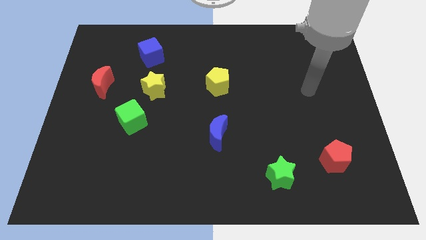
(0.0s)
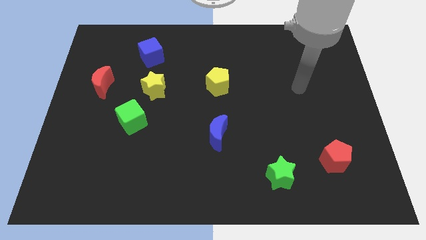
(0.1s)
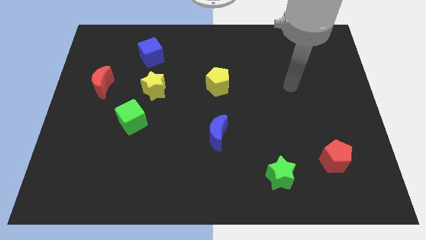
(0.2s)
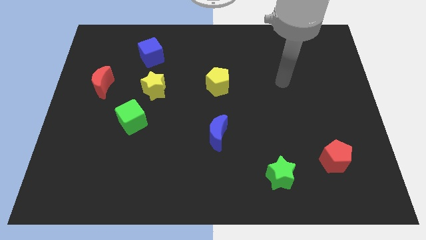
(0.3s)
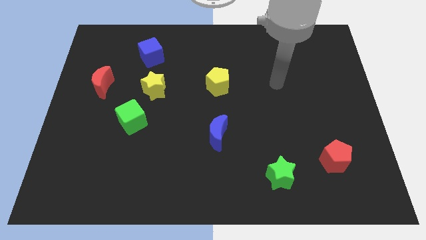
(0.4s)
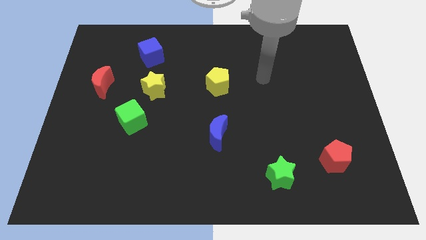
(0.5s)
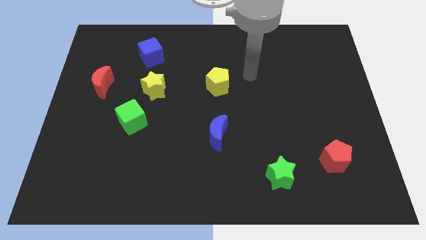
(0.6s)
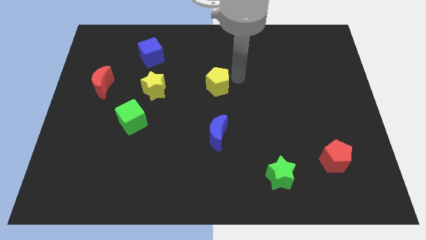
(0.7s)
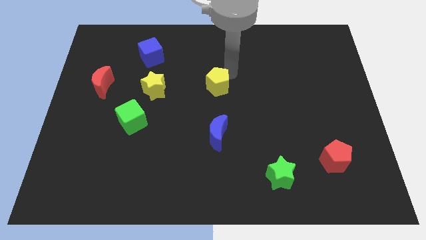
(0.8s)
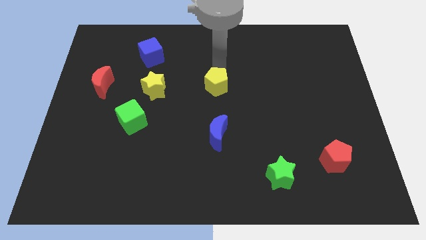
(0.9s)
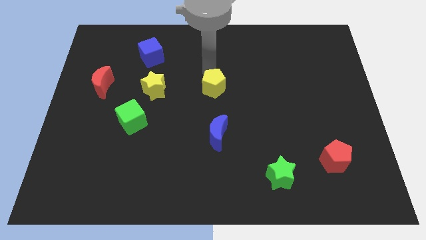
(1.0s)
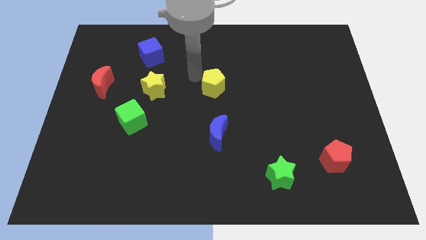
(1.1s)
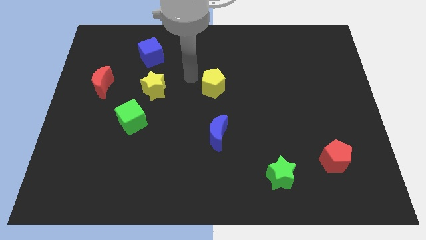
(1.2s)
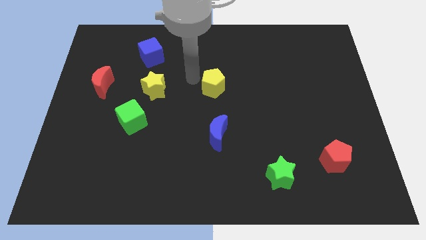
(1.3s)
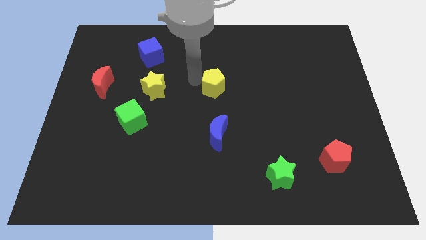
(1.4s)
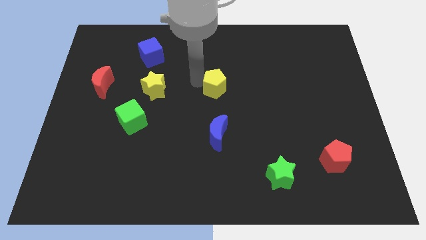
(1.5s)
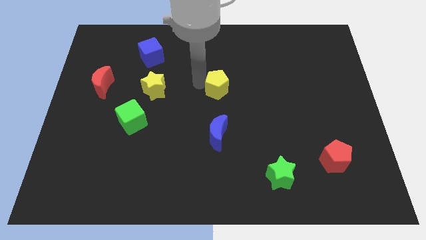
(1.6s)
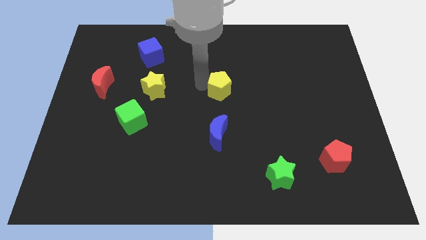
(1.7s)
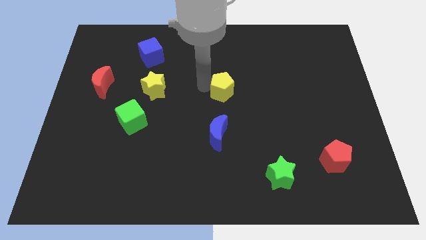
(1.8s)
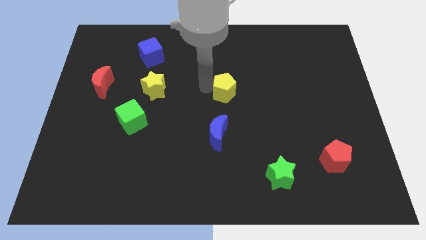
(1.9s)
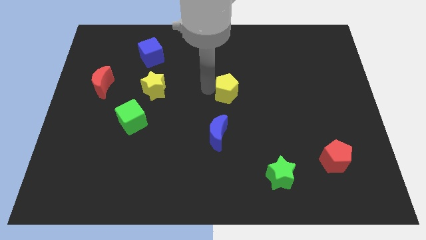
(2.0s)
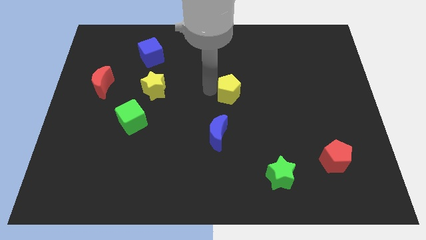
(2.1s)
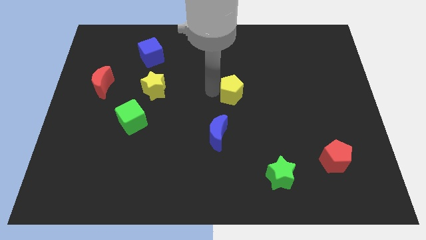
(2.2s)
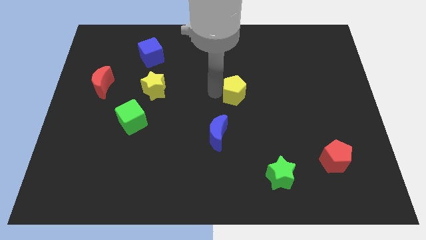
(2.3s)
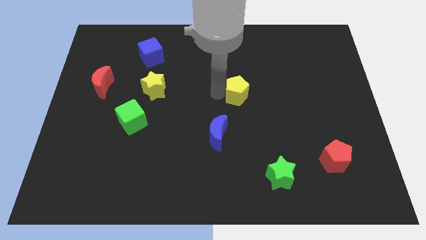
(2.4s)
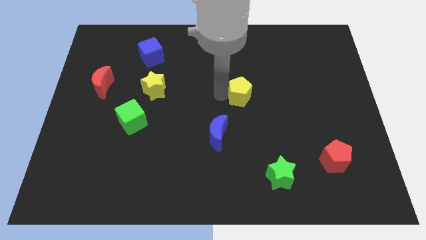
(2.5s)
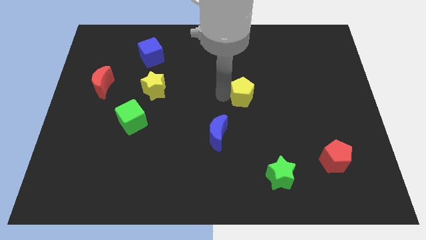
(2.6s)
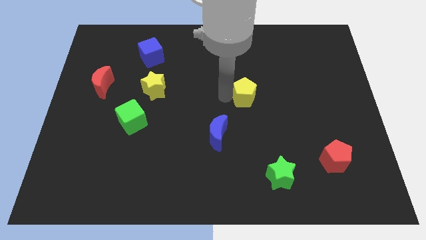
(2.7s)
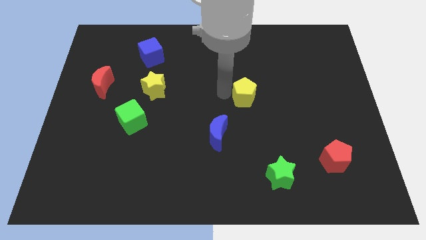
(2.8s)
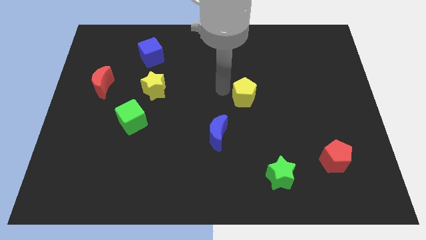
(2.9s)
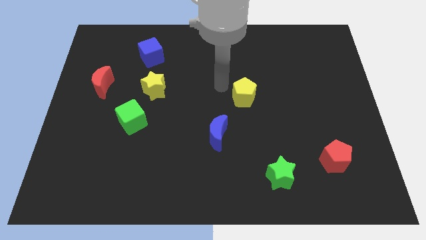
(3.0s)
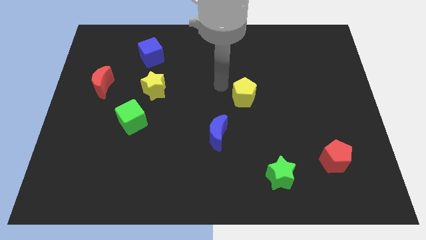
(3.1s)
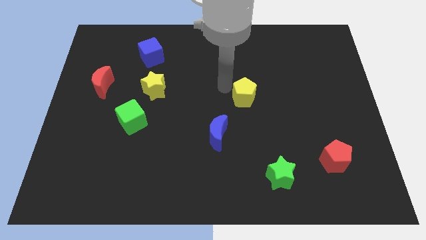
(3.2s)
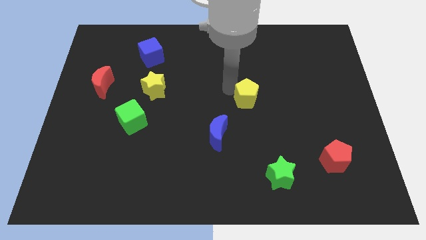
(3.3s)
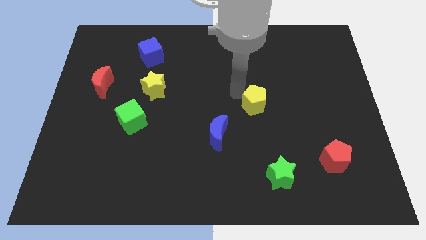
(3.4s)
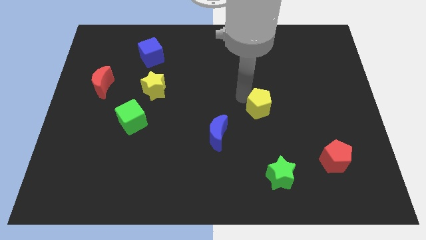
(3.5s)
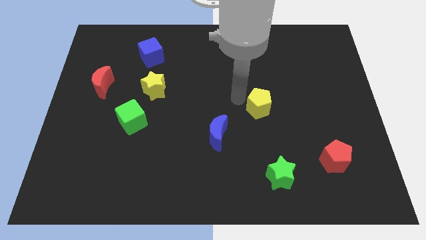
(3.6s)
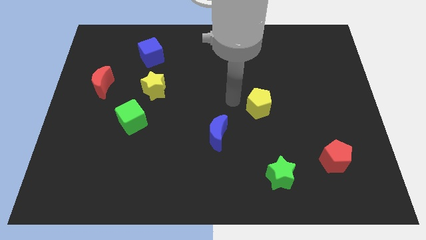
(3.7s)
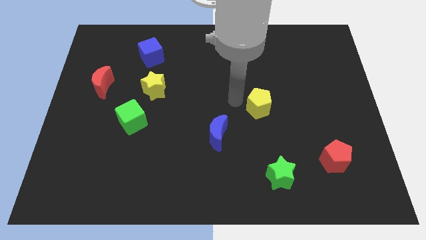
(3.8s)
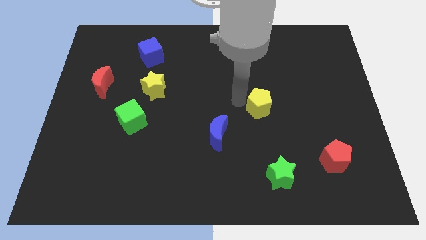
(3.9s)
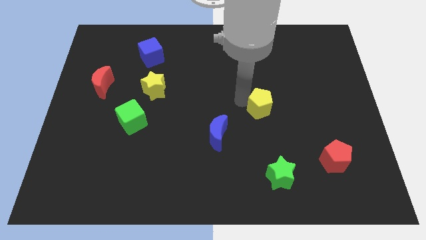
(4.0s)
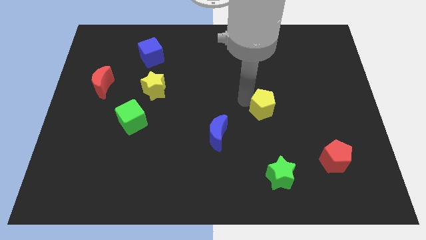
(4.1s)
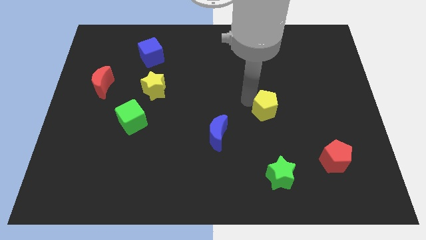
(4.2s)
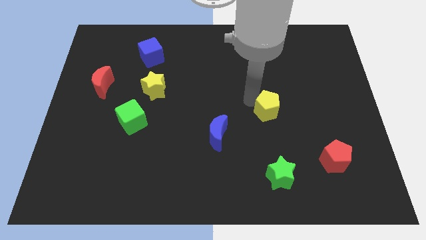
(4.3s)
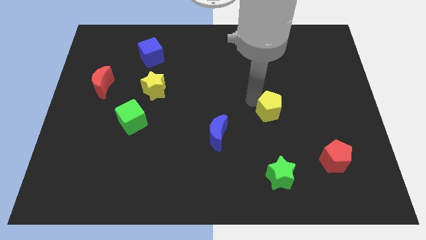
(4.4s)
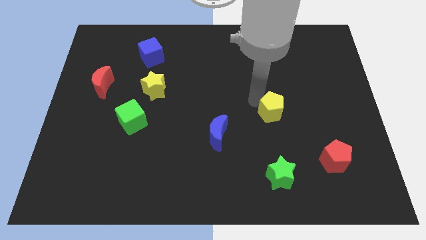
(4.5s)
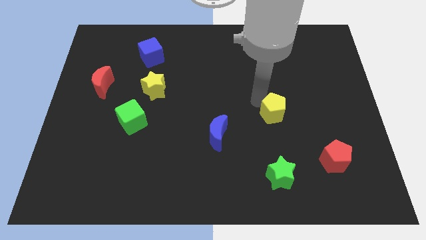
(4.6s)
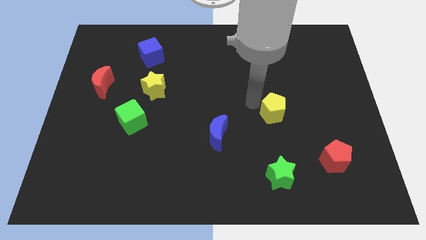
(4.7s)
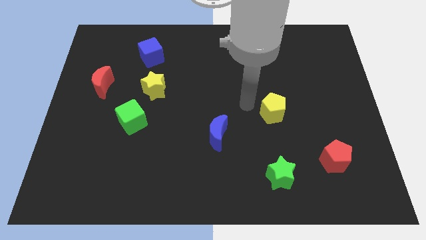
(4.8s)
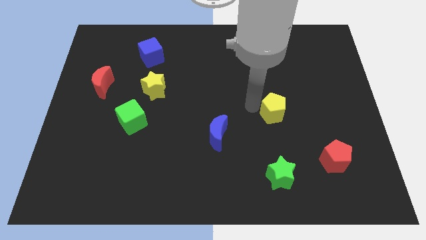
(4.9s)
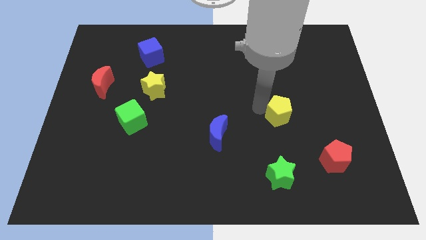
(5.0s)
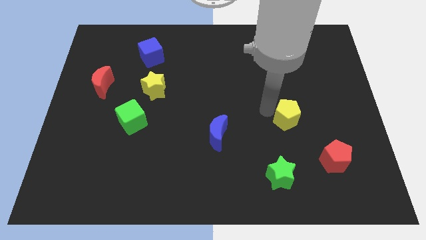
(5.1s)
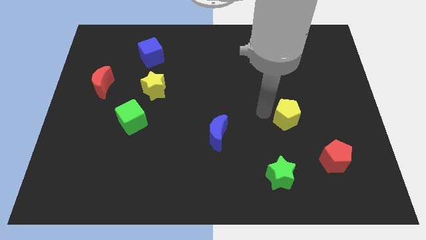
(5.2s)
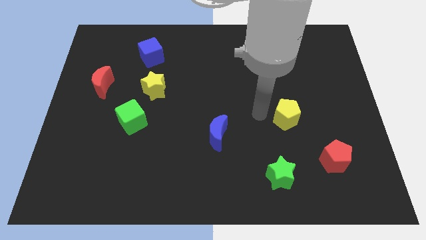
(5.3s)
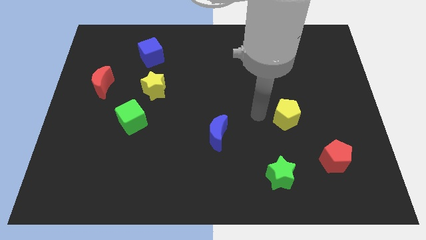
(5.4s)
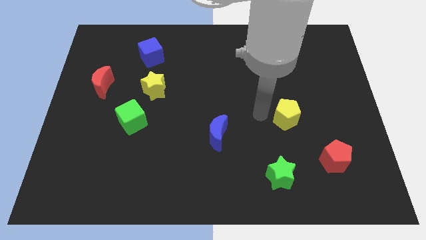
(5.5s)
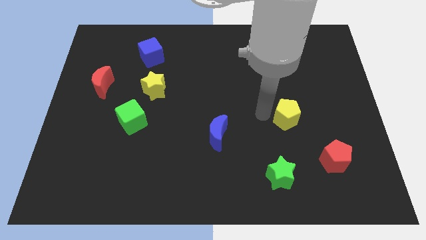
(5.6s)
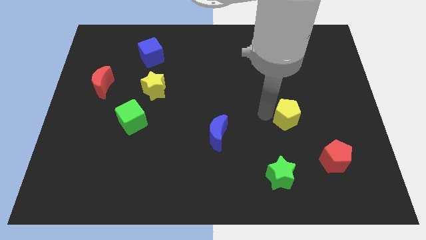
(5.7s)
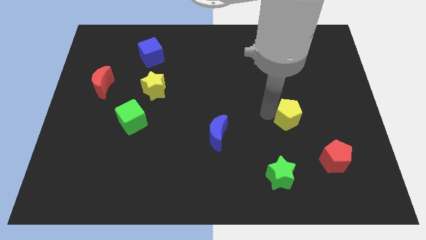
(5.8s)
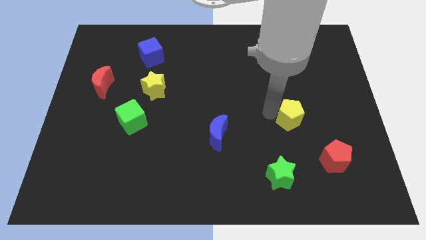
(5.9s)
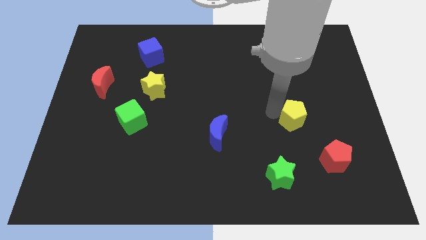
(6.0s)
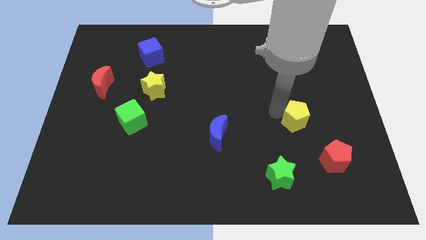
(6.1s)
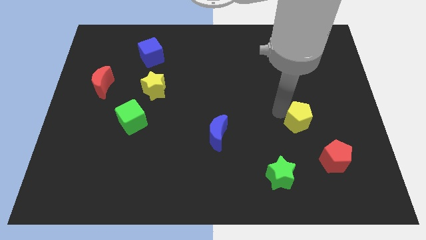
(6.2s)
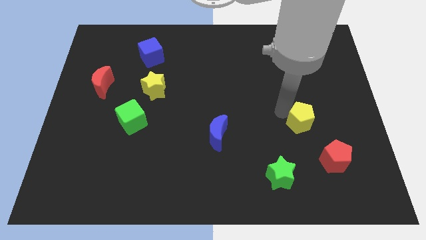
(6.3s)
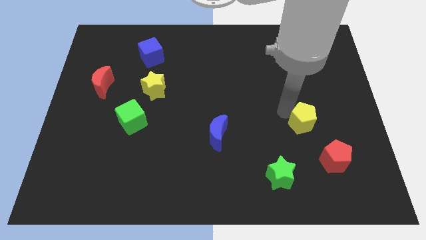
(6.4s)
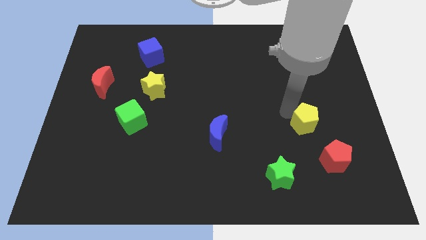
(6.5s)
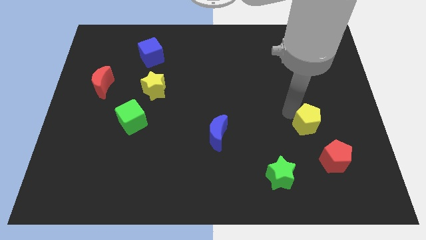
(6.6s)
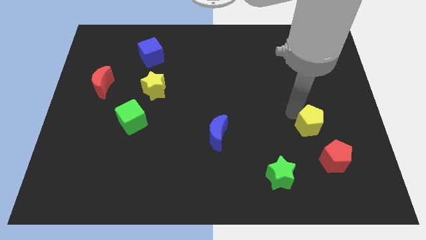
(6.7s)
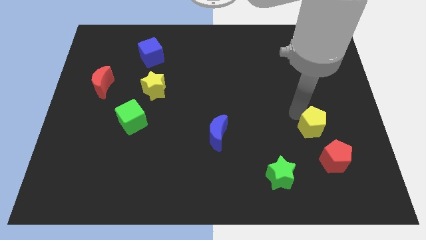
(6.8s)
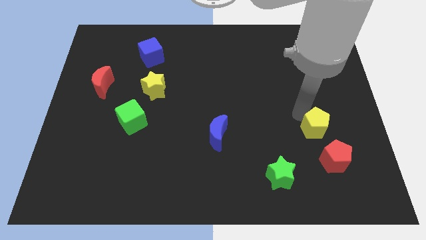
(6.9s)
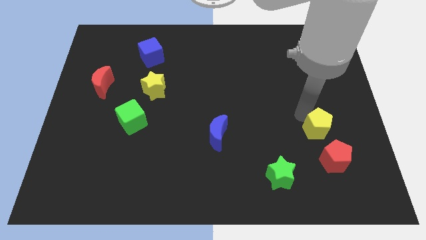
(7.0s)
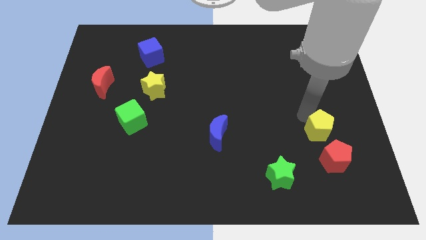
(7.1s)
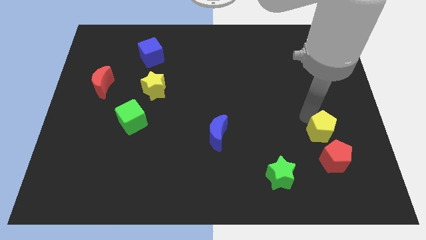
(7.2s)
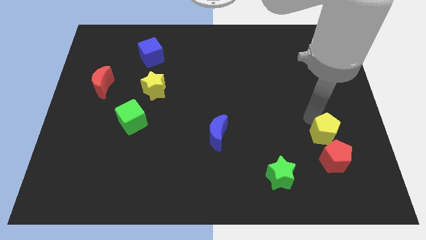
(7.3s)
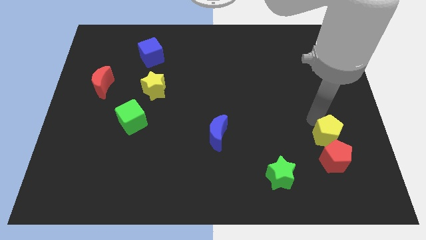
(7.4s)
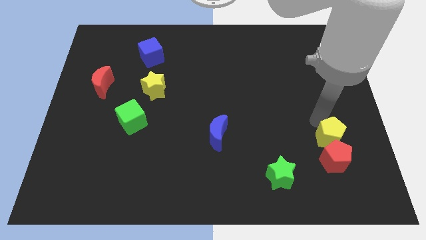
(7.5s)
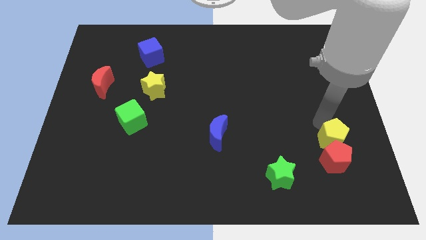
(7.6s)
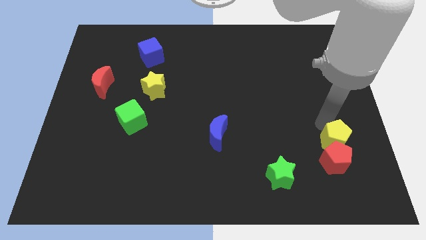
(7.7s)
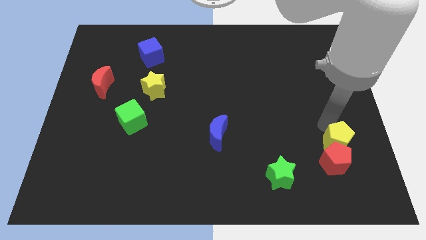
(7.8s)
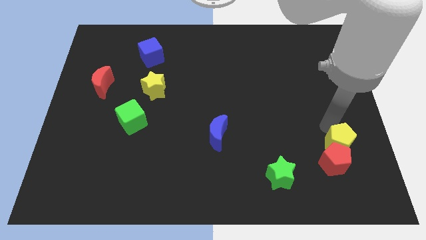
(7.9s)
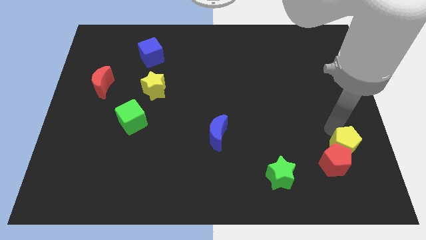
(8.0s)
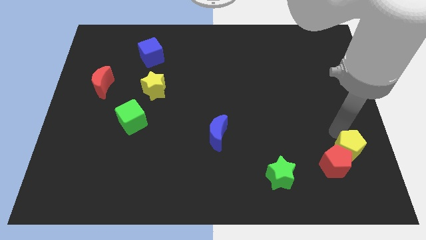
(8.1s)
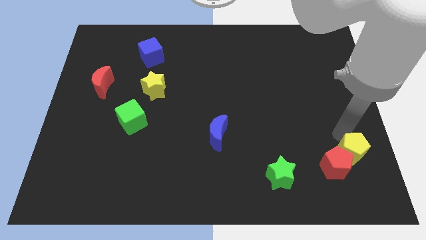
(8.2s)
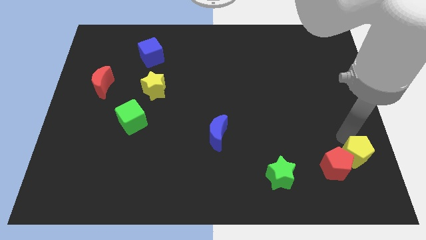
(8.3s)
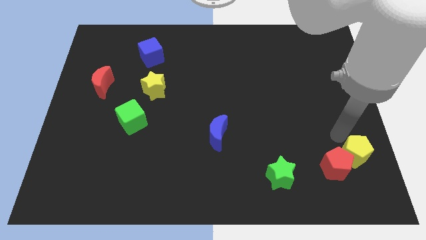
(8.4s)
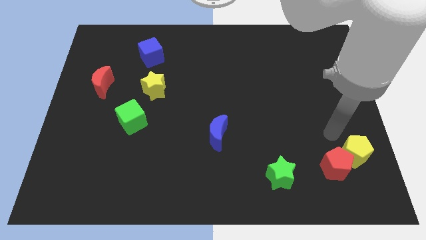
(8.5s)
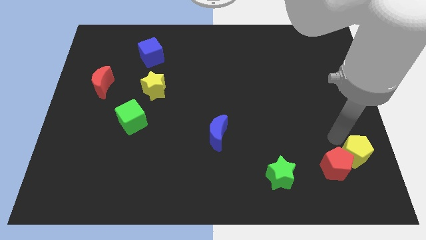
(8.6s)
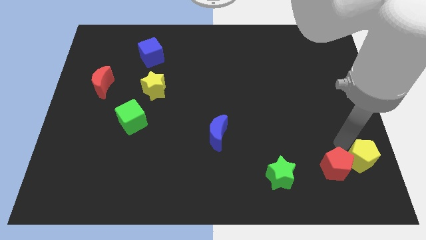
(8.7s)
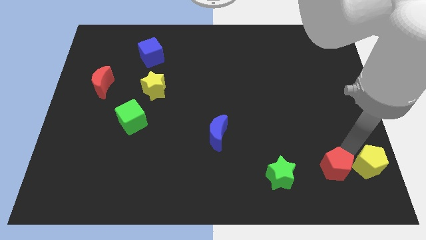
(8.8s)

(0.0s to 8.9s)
move the yellow pentagon to the lower right corner
